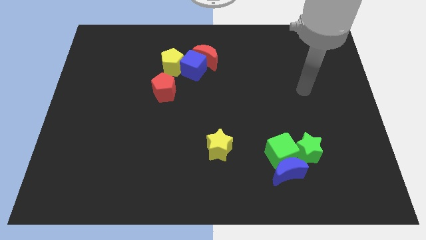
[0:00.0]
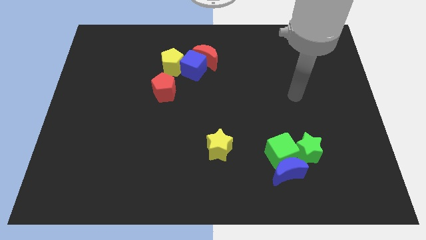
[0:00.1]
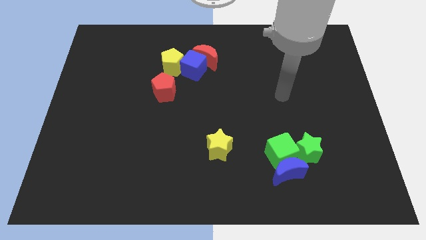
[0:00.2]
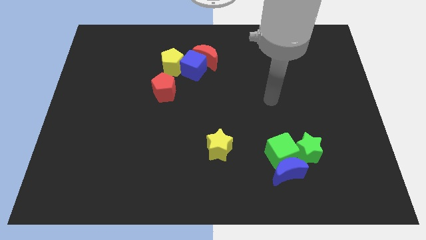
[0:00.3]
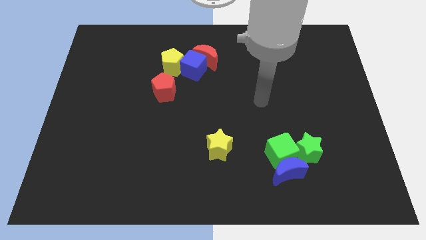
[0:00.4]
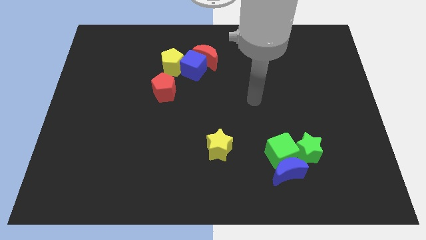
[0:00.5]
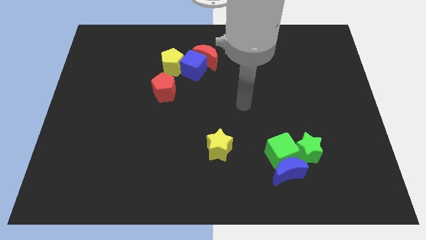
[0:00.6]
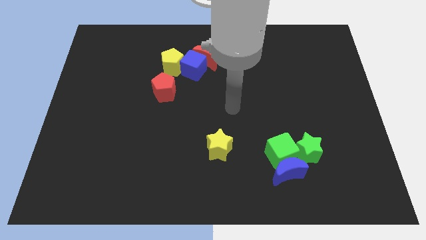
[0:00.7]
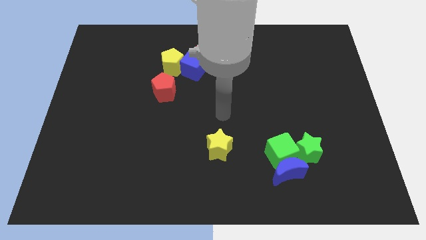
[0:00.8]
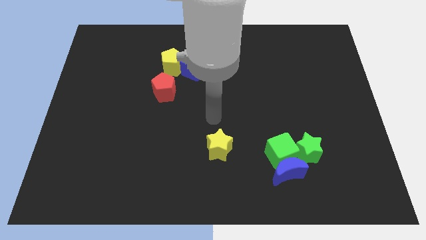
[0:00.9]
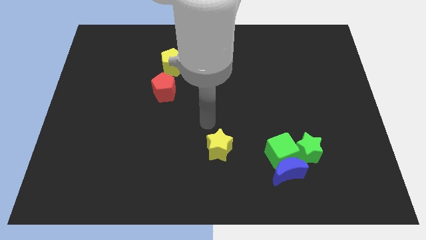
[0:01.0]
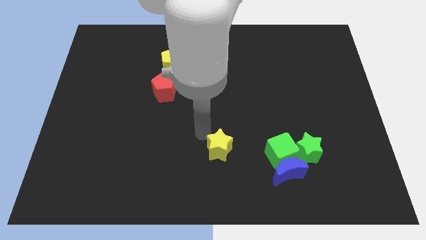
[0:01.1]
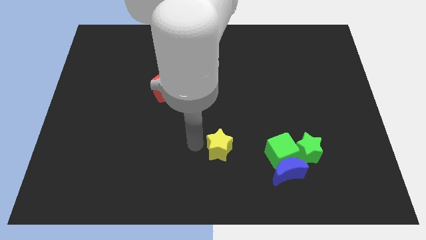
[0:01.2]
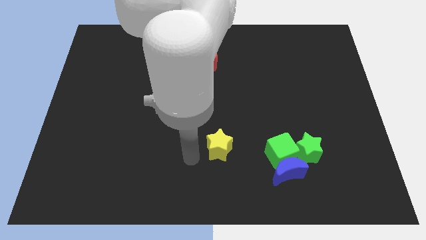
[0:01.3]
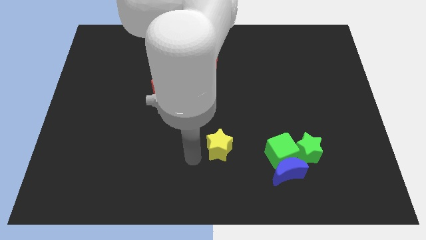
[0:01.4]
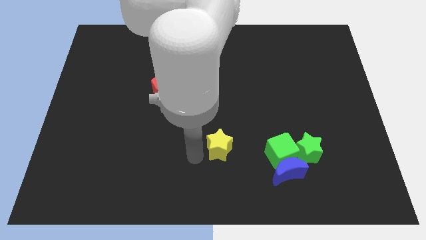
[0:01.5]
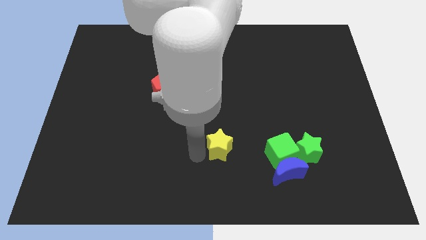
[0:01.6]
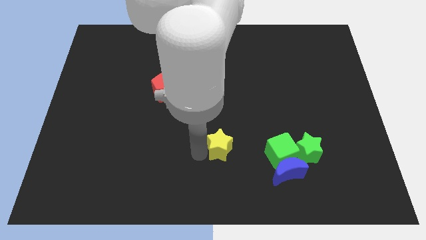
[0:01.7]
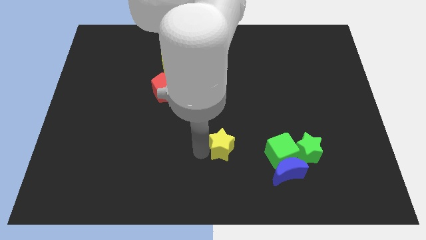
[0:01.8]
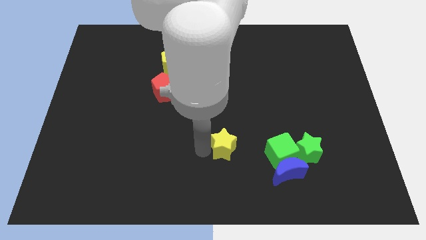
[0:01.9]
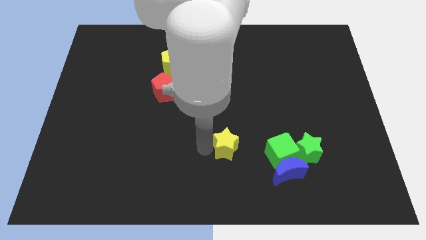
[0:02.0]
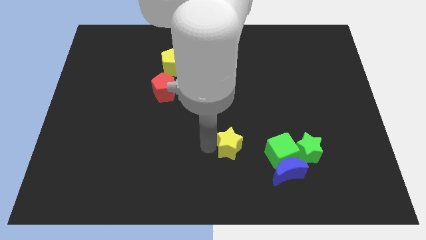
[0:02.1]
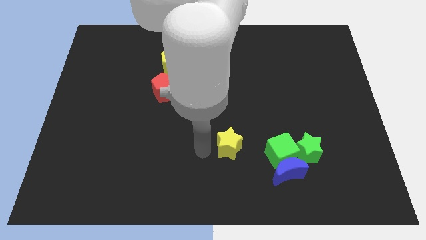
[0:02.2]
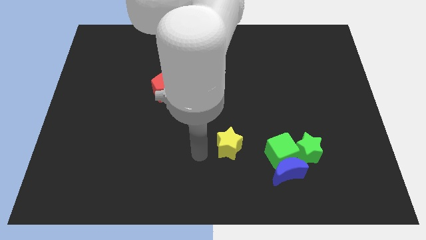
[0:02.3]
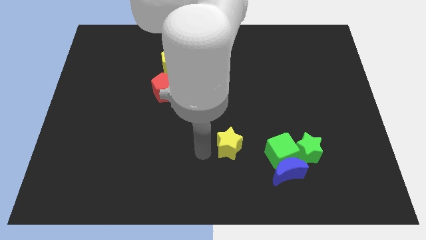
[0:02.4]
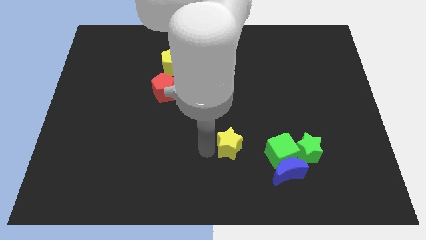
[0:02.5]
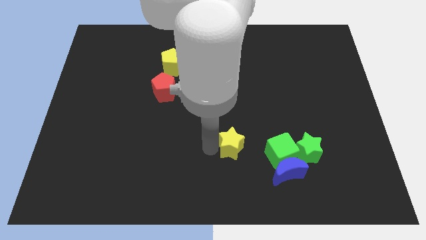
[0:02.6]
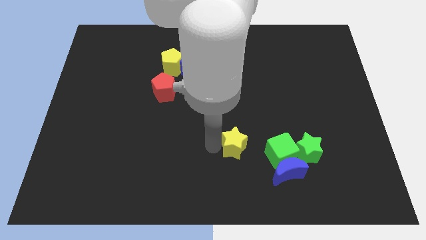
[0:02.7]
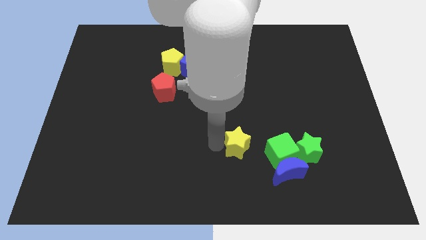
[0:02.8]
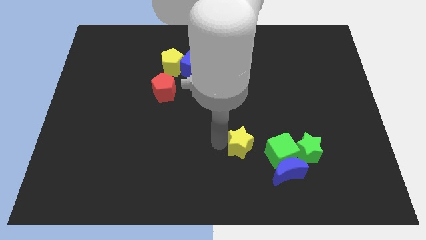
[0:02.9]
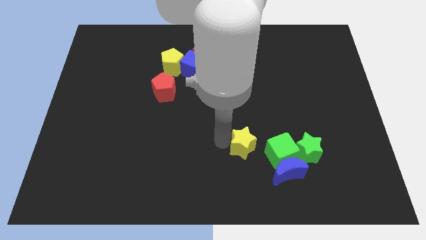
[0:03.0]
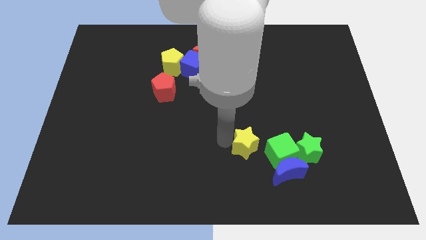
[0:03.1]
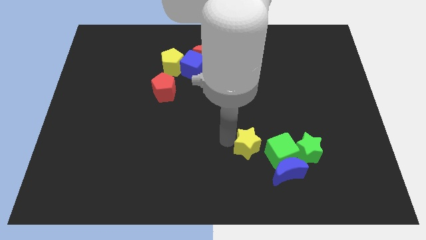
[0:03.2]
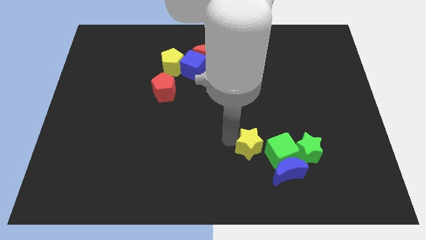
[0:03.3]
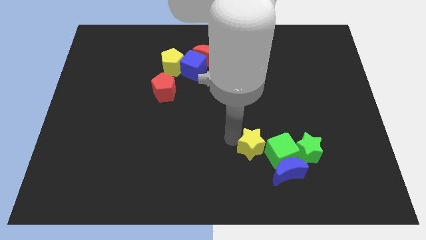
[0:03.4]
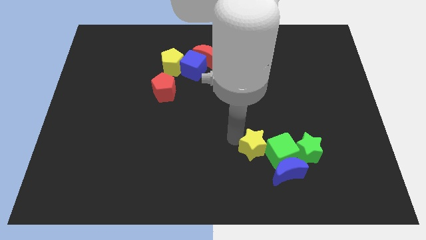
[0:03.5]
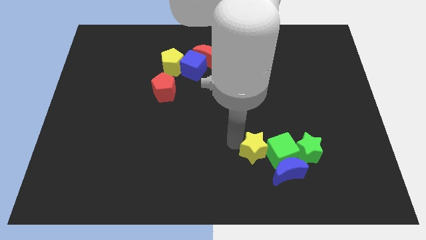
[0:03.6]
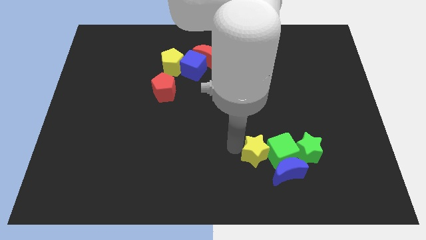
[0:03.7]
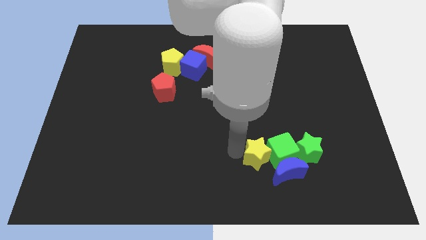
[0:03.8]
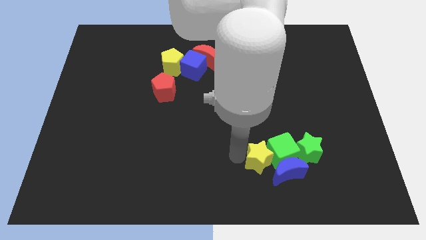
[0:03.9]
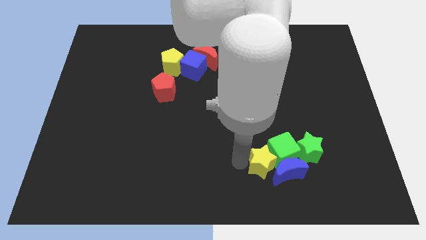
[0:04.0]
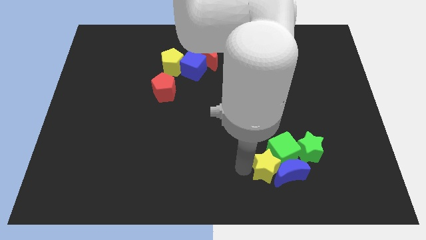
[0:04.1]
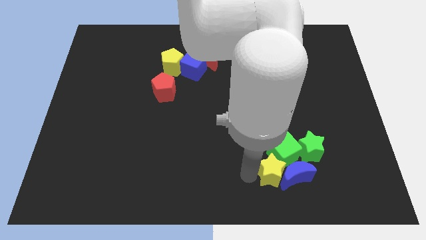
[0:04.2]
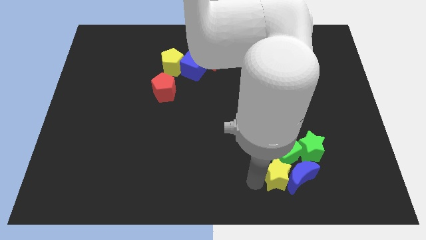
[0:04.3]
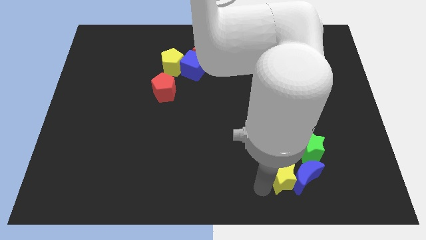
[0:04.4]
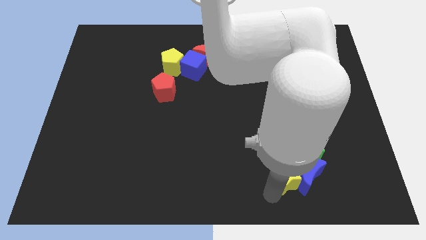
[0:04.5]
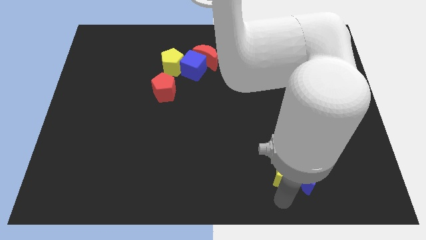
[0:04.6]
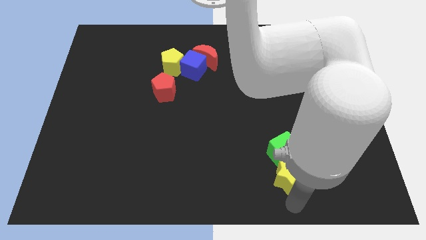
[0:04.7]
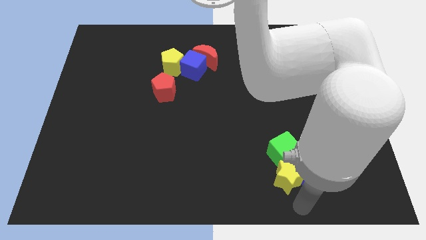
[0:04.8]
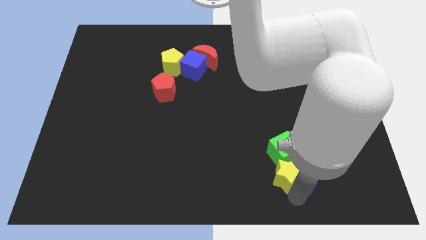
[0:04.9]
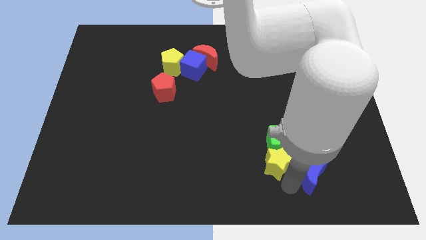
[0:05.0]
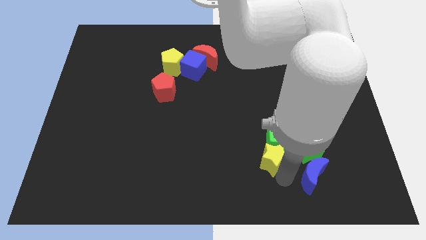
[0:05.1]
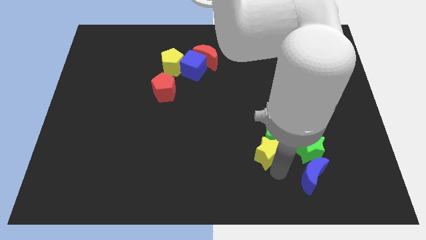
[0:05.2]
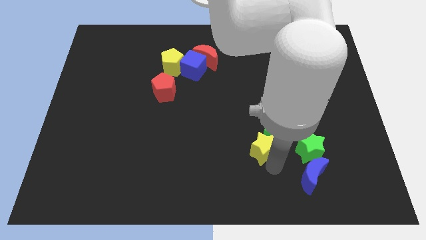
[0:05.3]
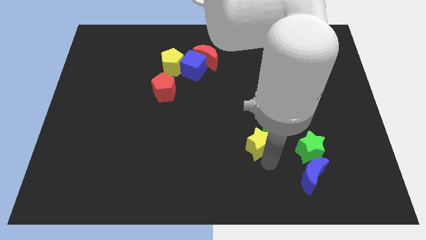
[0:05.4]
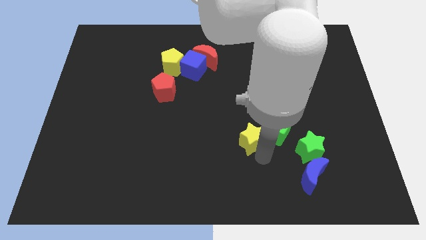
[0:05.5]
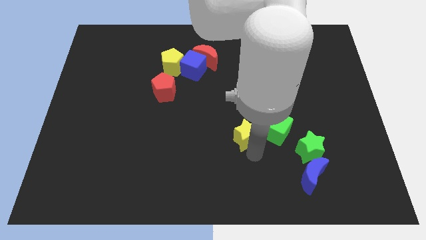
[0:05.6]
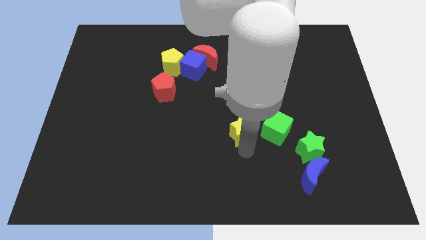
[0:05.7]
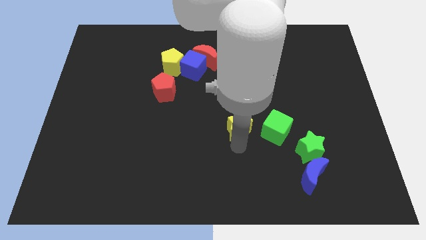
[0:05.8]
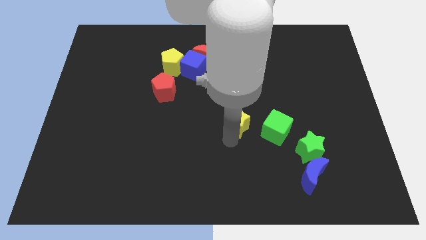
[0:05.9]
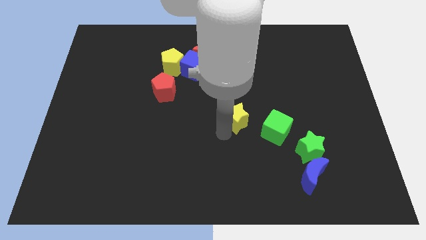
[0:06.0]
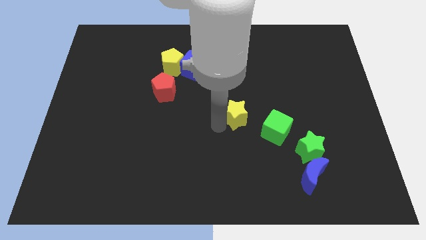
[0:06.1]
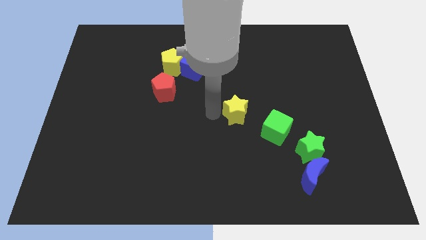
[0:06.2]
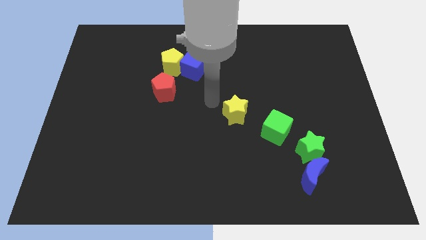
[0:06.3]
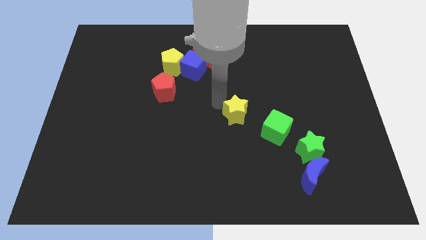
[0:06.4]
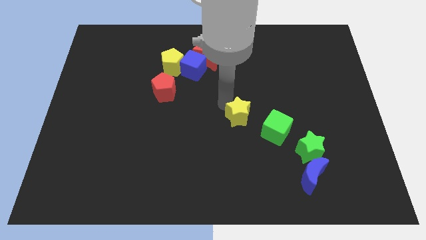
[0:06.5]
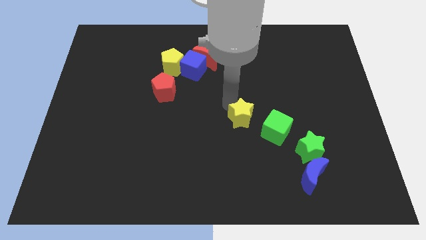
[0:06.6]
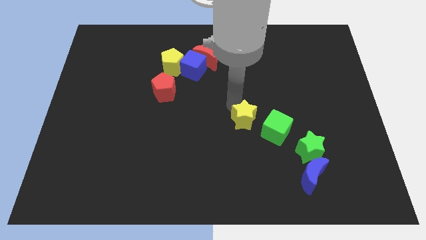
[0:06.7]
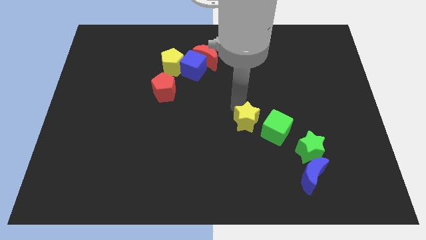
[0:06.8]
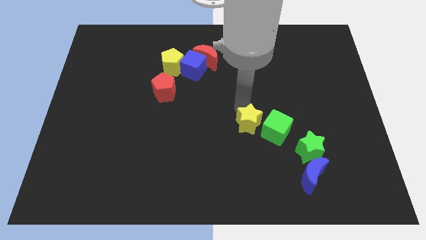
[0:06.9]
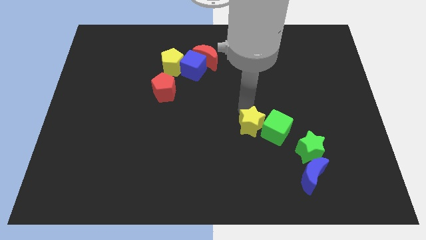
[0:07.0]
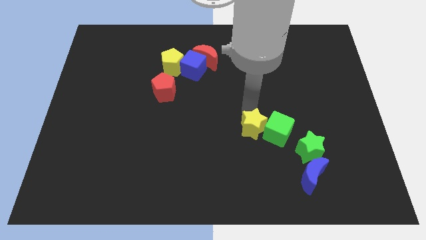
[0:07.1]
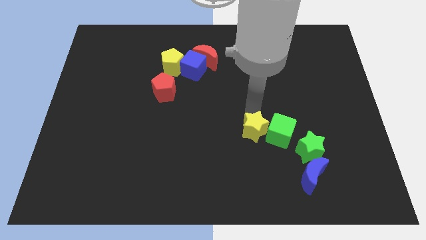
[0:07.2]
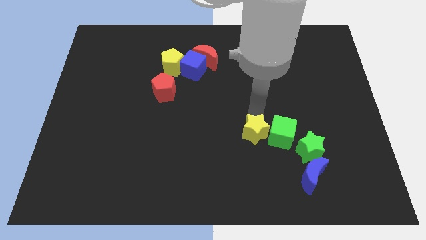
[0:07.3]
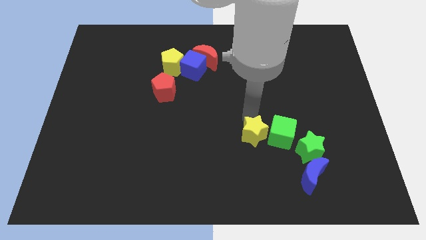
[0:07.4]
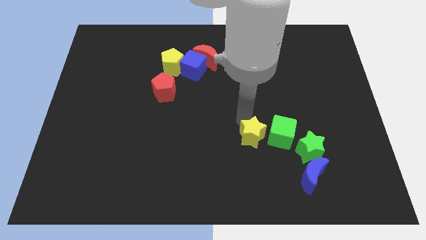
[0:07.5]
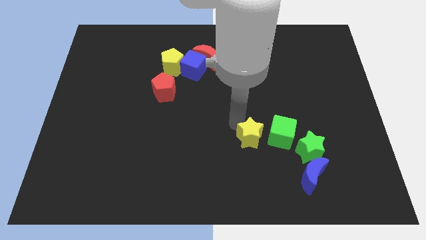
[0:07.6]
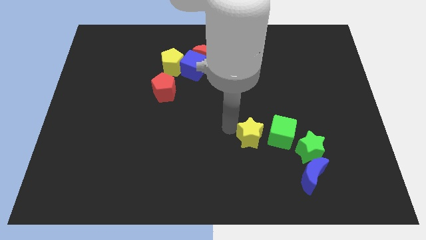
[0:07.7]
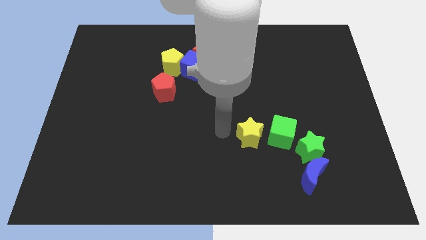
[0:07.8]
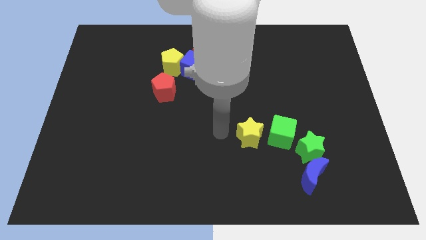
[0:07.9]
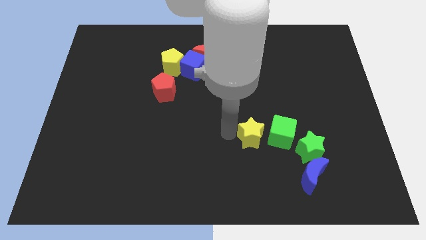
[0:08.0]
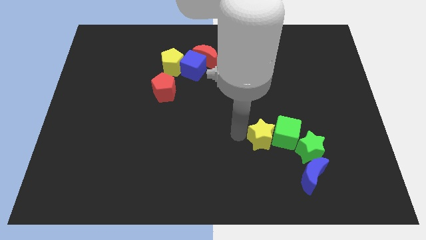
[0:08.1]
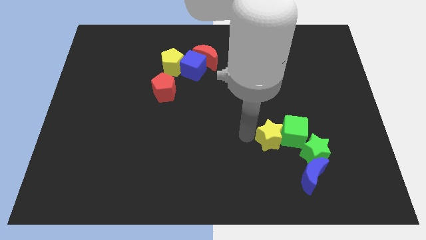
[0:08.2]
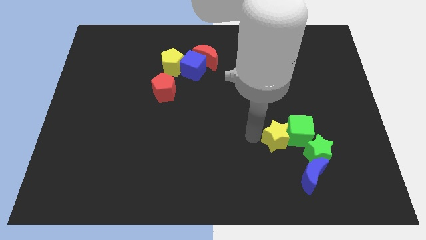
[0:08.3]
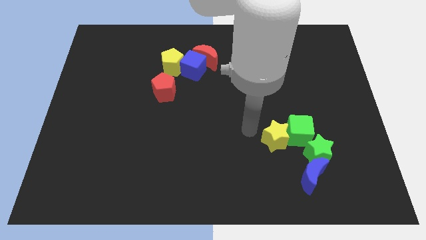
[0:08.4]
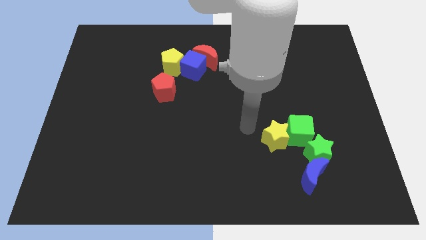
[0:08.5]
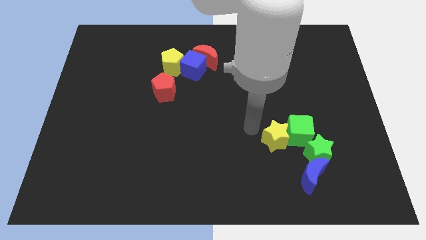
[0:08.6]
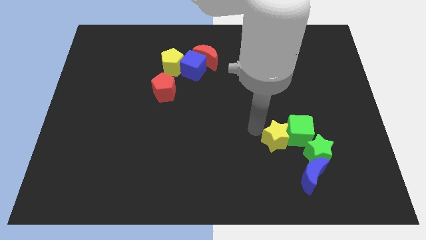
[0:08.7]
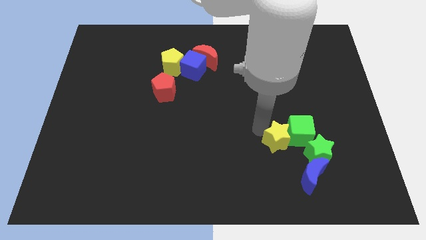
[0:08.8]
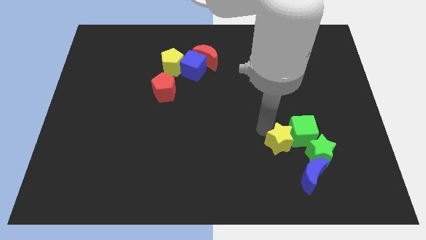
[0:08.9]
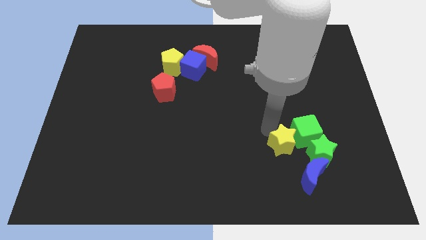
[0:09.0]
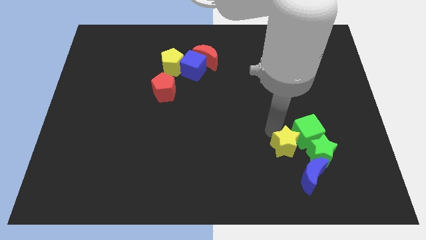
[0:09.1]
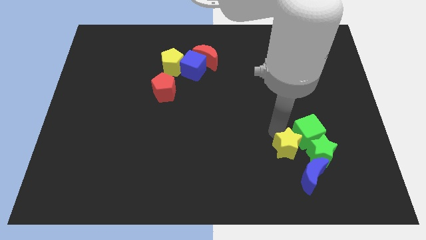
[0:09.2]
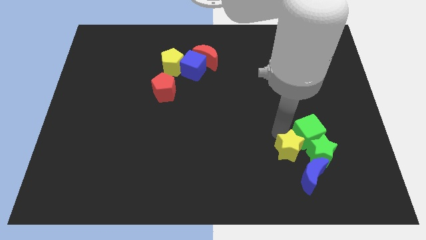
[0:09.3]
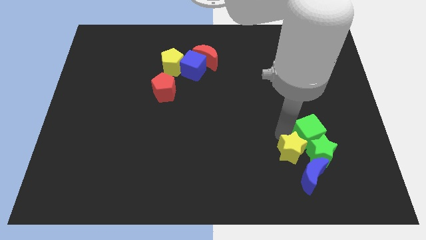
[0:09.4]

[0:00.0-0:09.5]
put the yellow star to the green star
